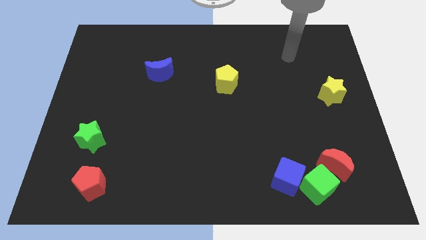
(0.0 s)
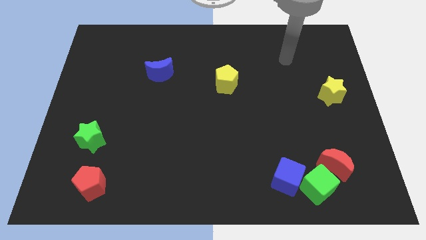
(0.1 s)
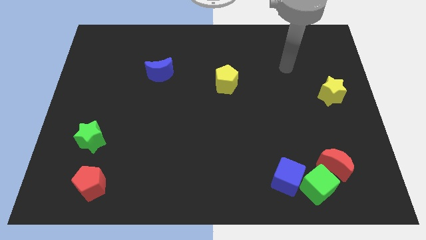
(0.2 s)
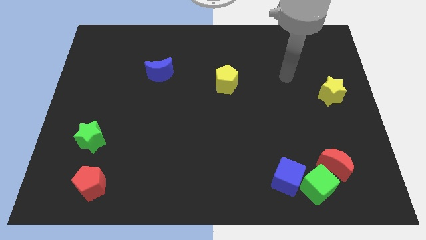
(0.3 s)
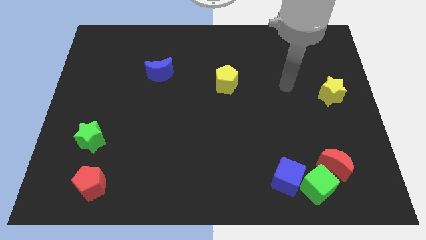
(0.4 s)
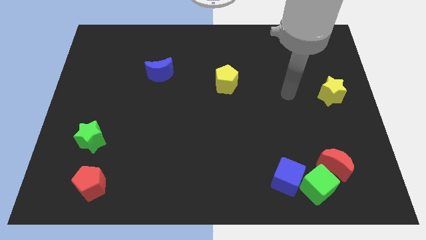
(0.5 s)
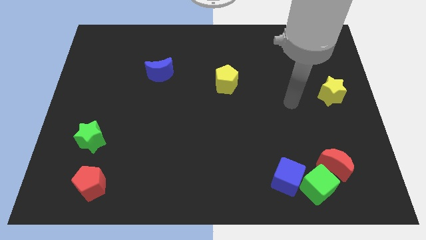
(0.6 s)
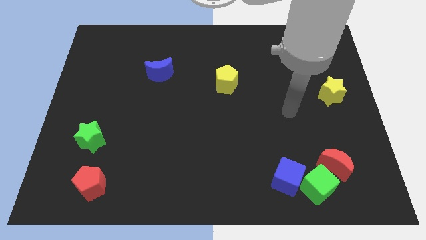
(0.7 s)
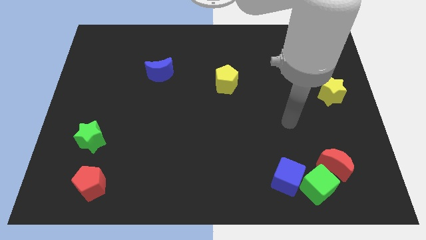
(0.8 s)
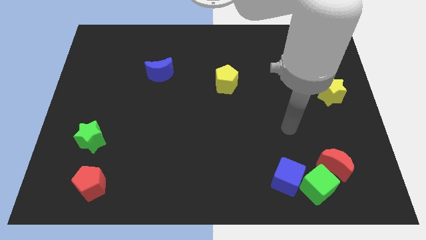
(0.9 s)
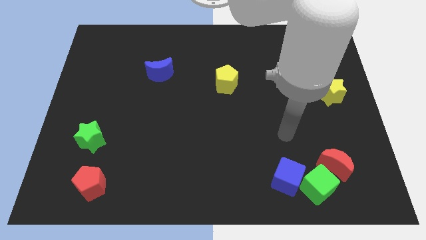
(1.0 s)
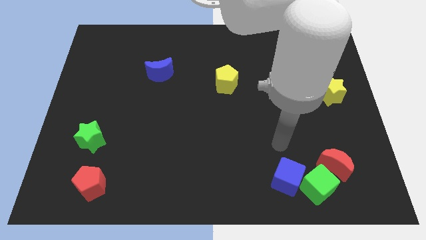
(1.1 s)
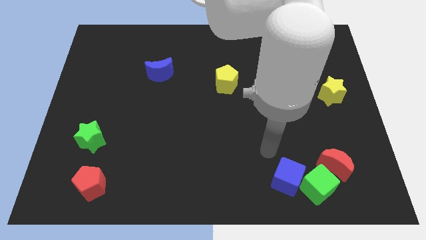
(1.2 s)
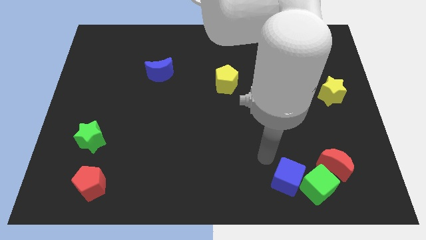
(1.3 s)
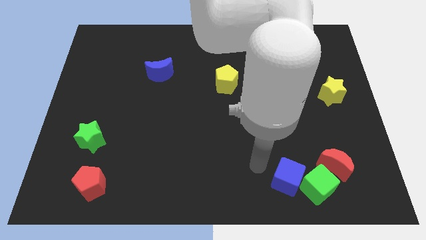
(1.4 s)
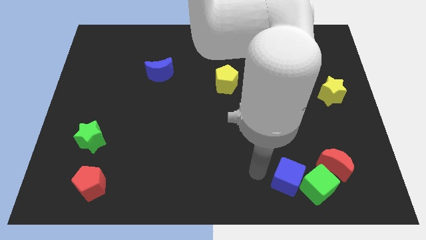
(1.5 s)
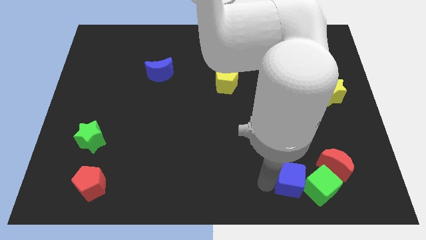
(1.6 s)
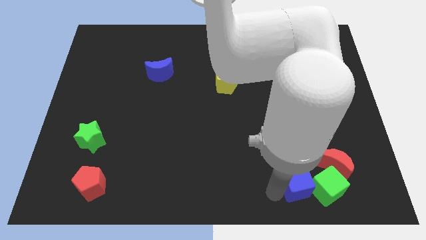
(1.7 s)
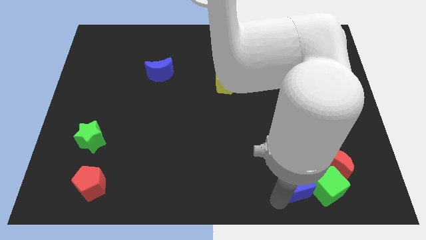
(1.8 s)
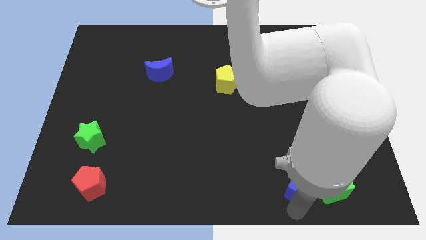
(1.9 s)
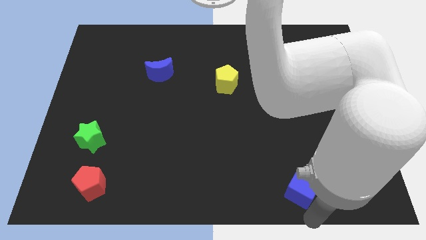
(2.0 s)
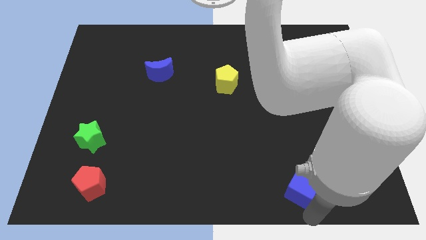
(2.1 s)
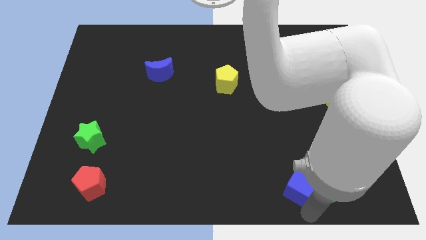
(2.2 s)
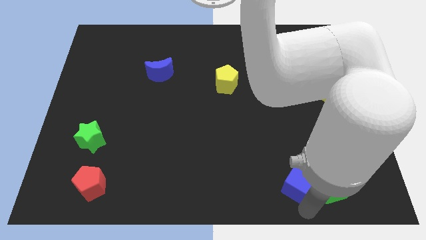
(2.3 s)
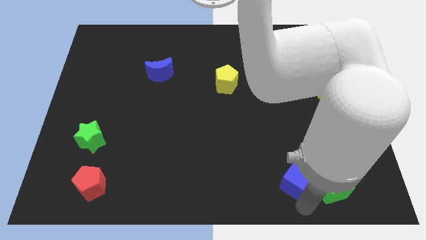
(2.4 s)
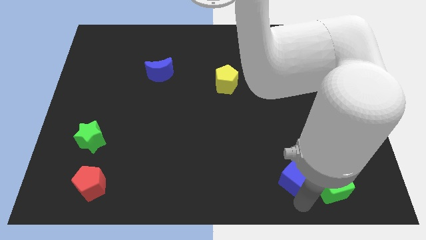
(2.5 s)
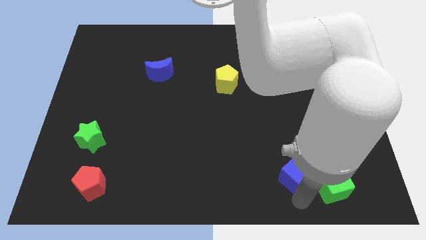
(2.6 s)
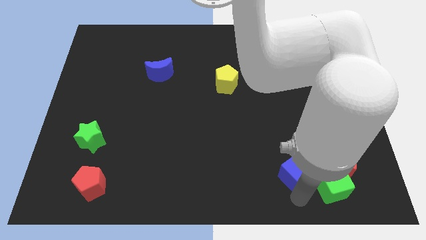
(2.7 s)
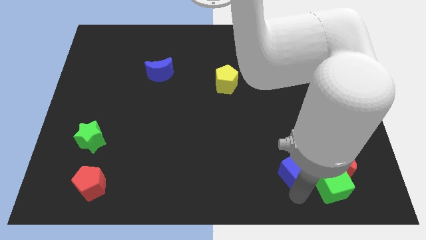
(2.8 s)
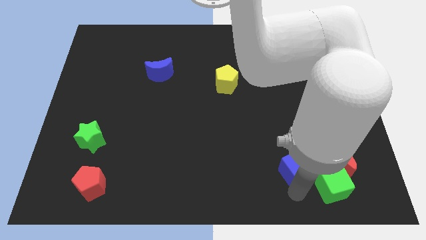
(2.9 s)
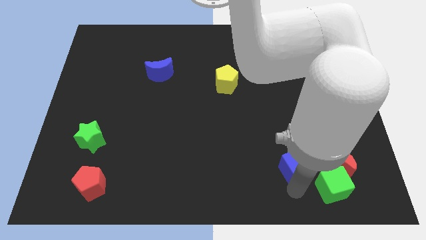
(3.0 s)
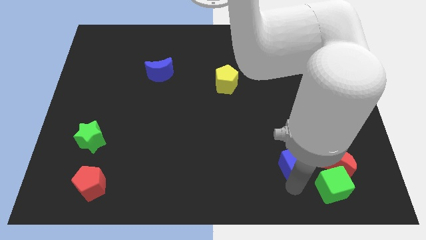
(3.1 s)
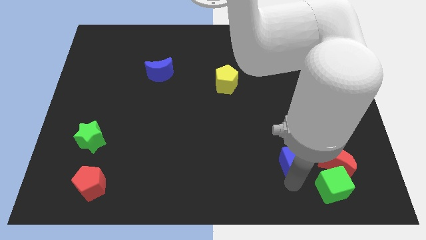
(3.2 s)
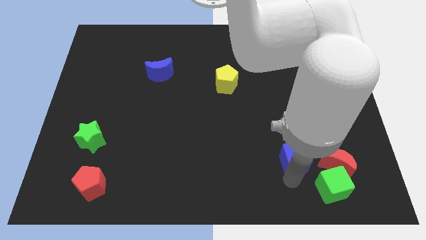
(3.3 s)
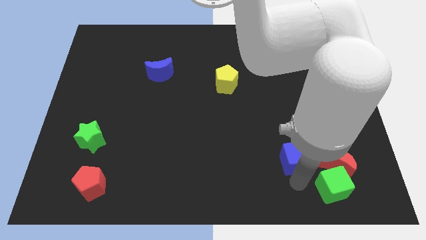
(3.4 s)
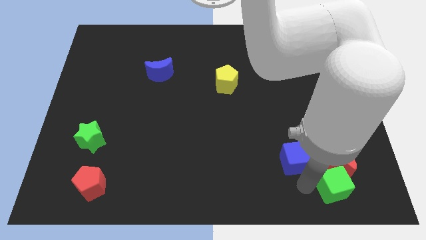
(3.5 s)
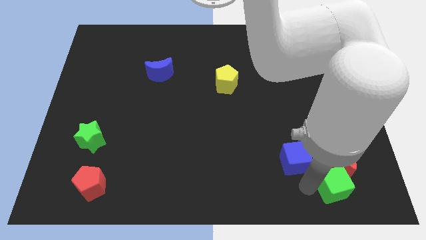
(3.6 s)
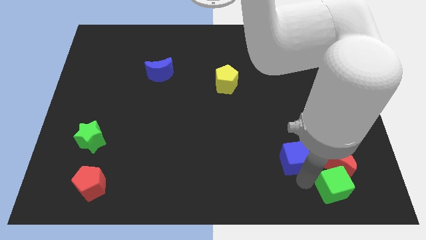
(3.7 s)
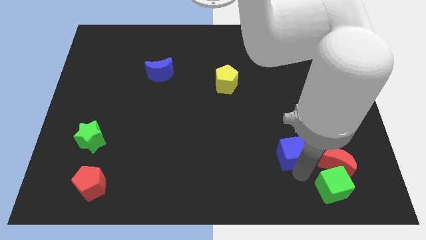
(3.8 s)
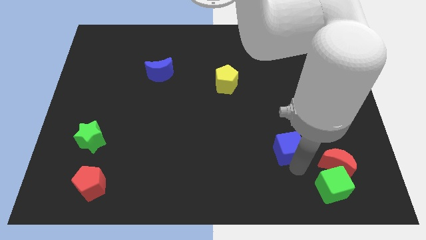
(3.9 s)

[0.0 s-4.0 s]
push the blue cube a little bit upwards

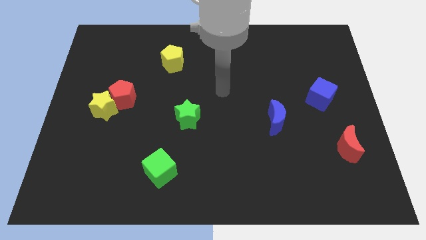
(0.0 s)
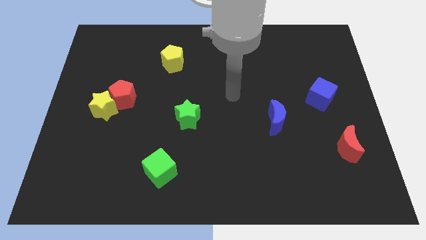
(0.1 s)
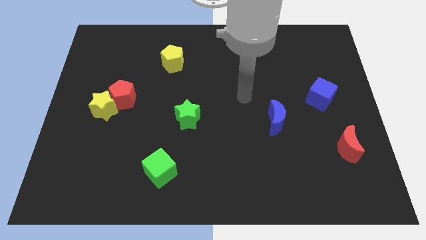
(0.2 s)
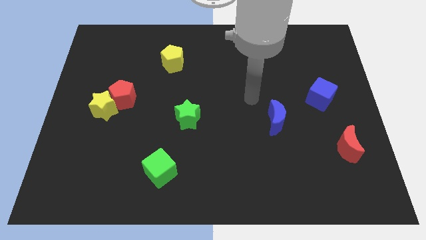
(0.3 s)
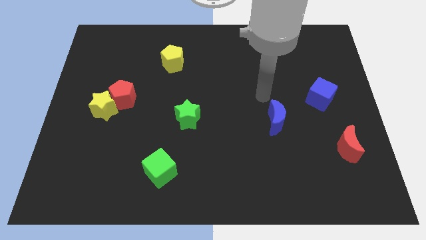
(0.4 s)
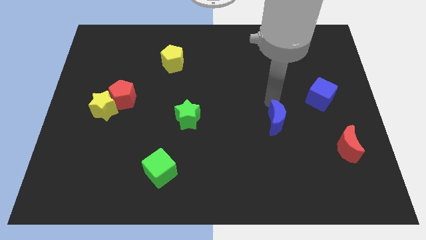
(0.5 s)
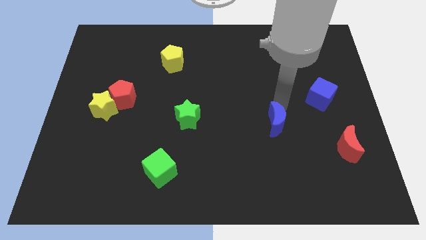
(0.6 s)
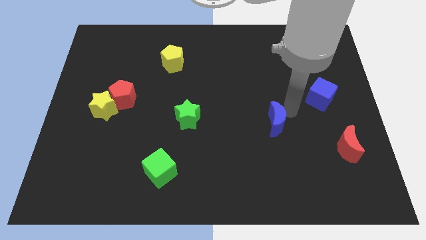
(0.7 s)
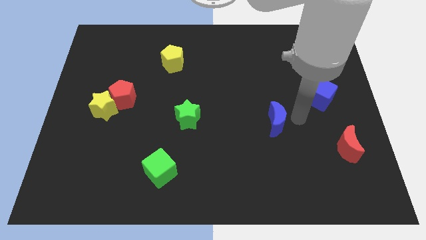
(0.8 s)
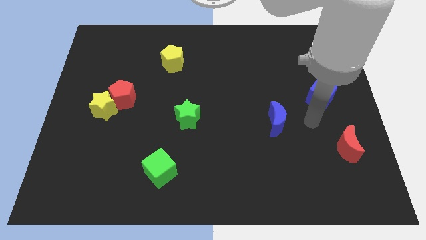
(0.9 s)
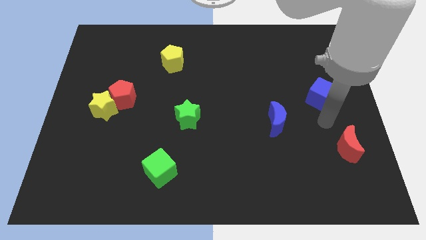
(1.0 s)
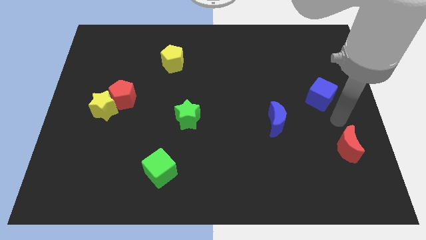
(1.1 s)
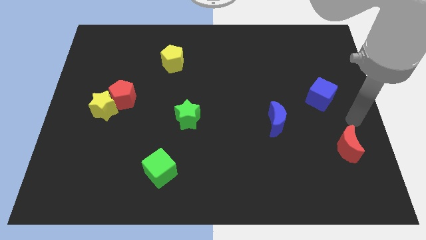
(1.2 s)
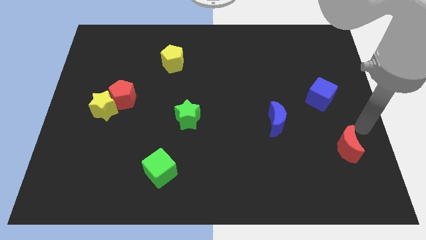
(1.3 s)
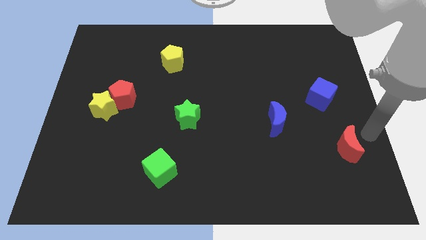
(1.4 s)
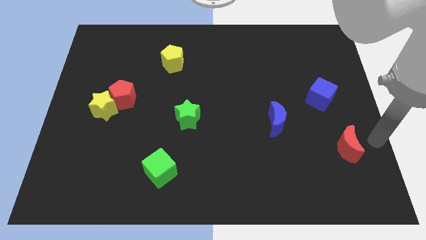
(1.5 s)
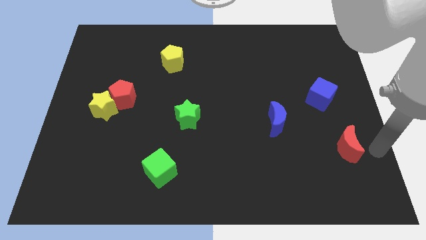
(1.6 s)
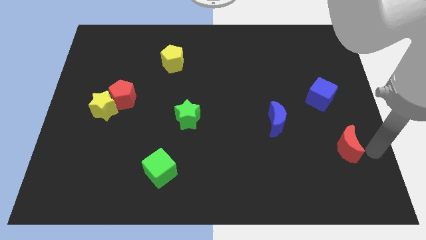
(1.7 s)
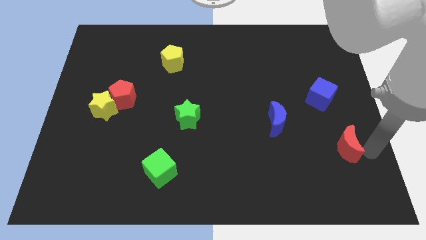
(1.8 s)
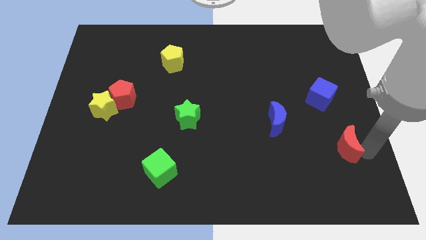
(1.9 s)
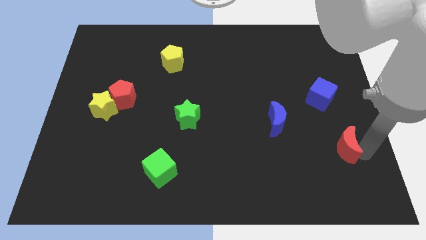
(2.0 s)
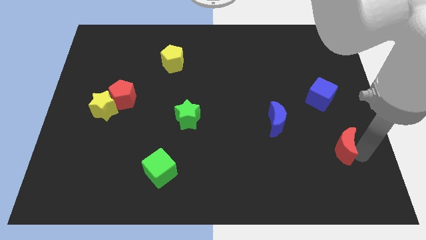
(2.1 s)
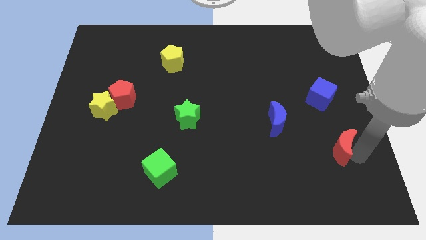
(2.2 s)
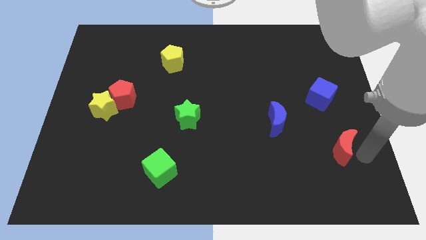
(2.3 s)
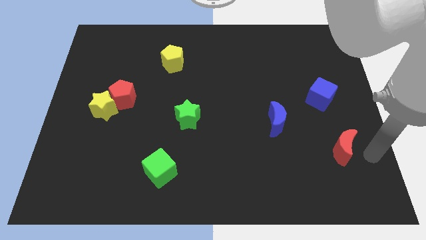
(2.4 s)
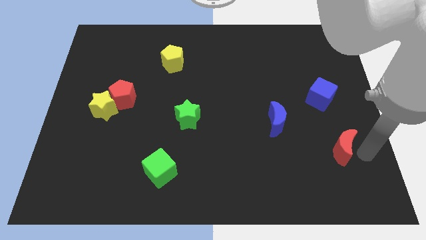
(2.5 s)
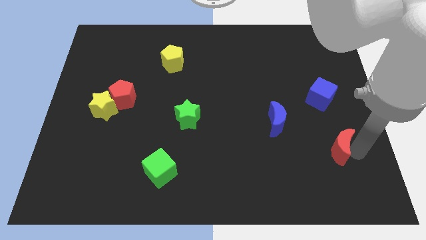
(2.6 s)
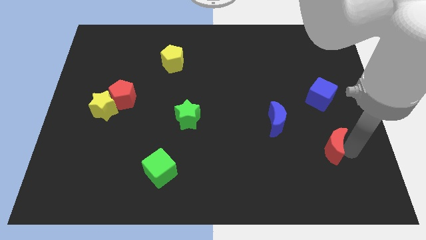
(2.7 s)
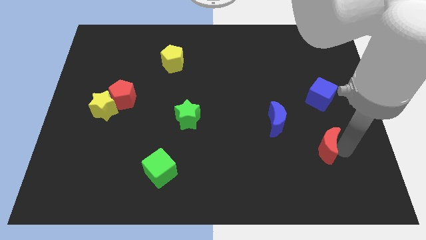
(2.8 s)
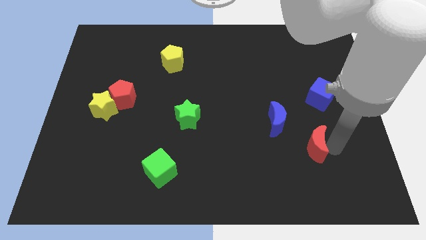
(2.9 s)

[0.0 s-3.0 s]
move the red moon somewhat to the left

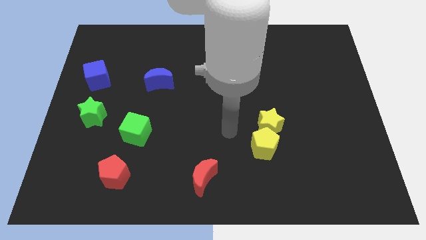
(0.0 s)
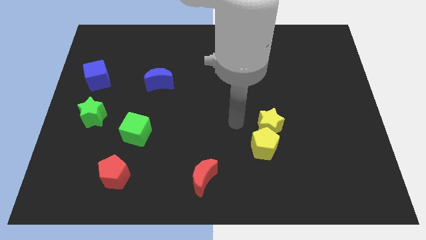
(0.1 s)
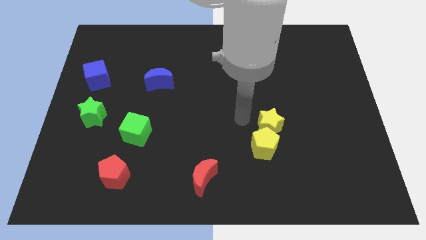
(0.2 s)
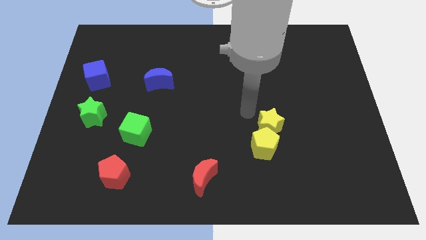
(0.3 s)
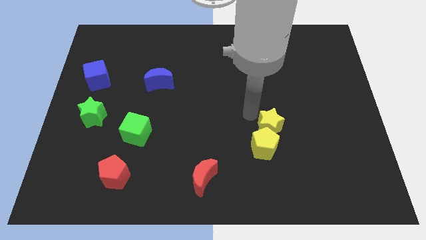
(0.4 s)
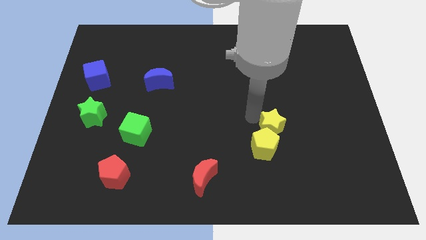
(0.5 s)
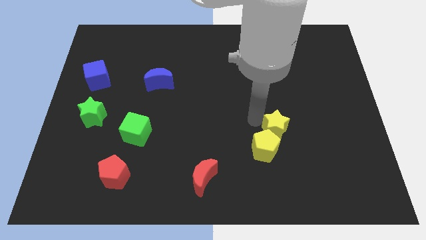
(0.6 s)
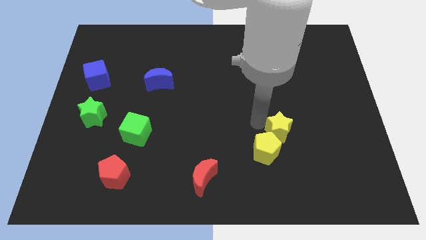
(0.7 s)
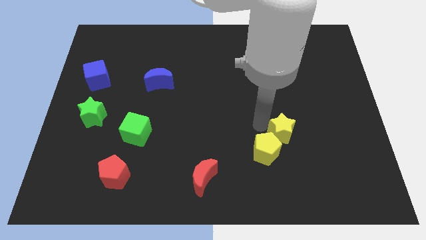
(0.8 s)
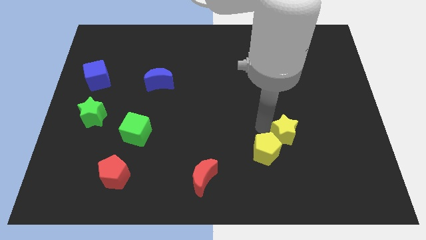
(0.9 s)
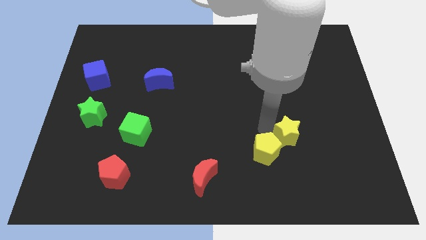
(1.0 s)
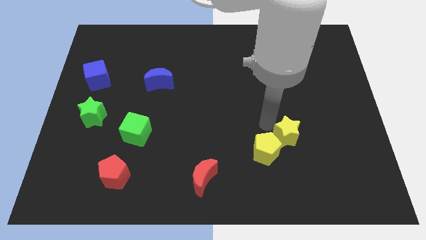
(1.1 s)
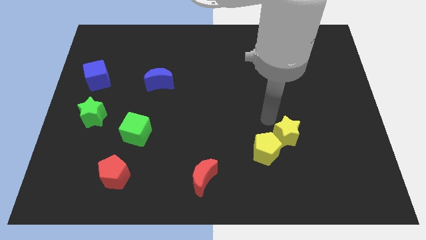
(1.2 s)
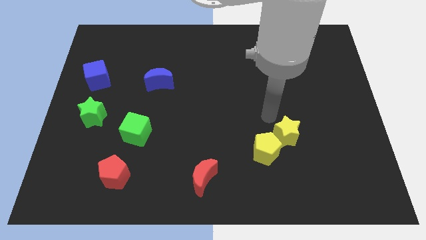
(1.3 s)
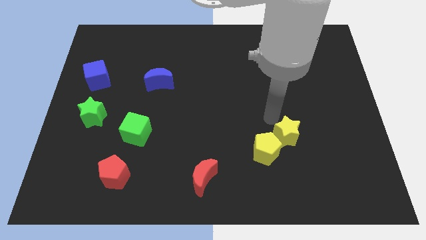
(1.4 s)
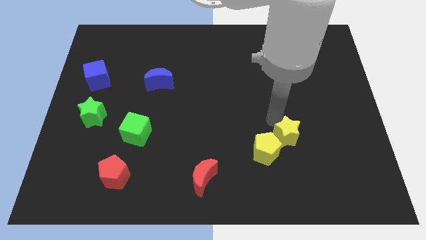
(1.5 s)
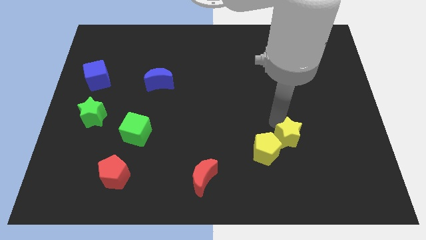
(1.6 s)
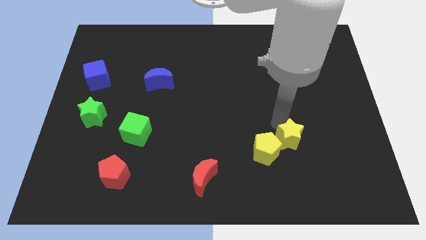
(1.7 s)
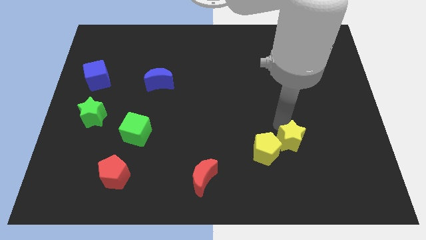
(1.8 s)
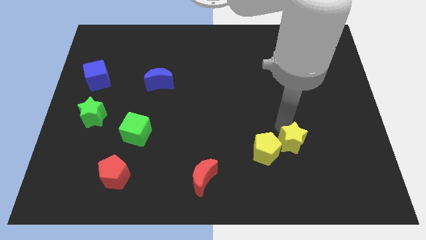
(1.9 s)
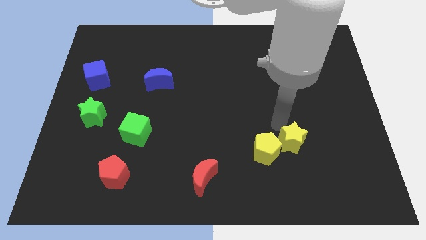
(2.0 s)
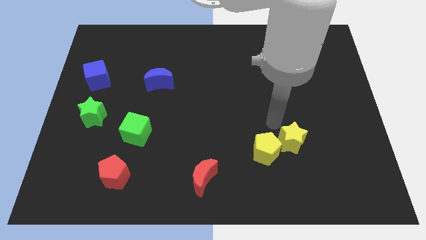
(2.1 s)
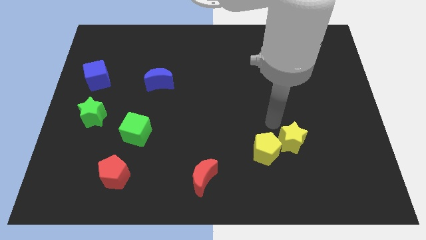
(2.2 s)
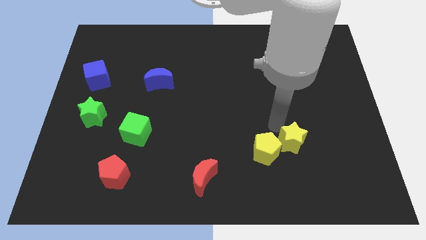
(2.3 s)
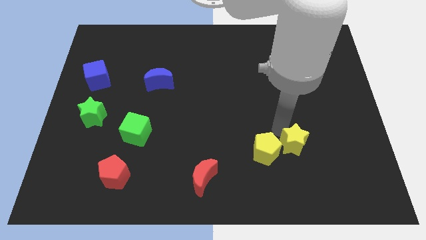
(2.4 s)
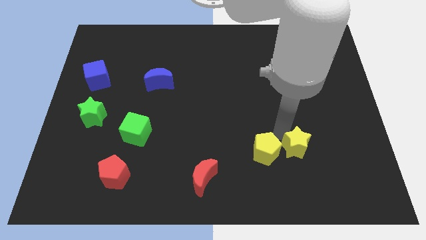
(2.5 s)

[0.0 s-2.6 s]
move the yellow star downwards and then right somewhat
